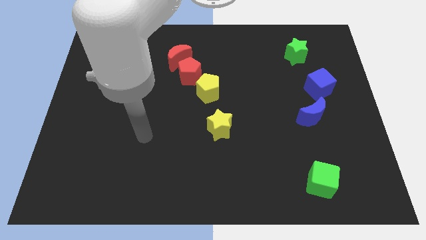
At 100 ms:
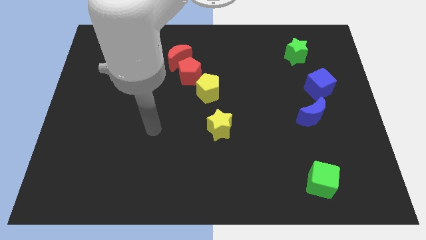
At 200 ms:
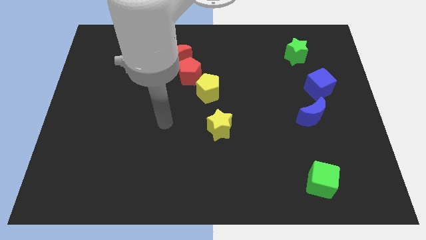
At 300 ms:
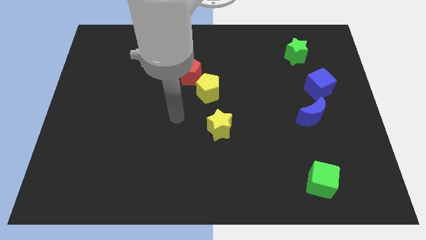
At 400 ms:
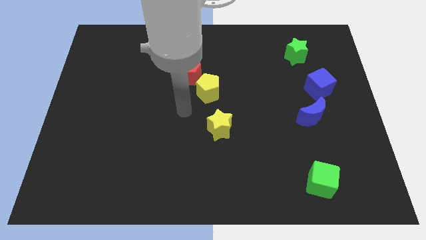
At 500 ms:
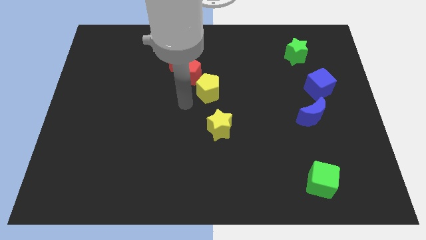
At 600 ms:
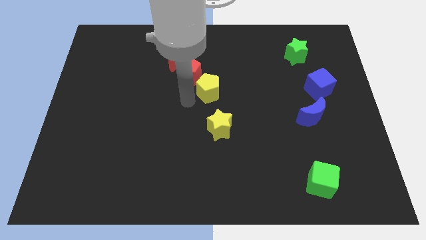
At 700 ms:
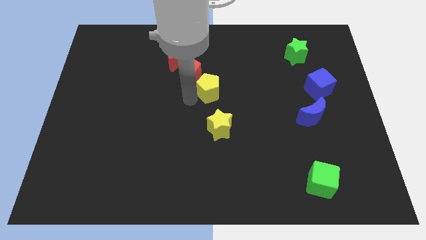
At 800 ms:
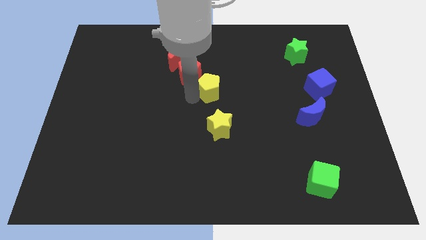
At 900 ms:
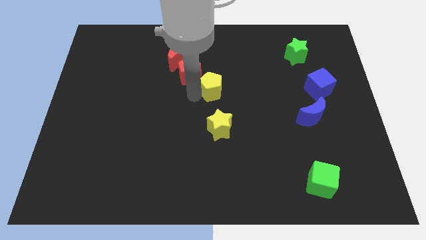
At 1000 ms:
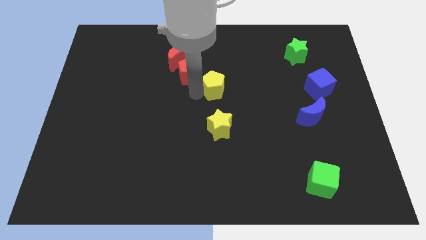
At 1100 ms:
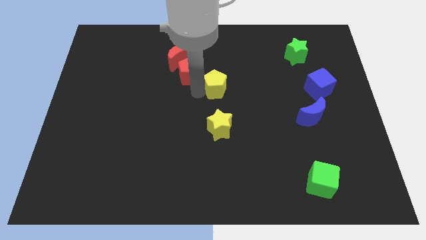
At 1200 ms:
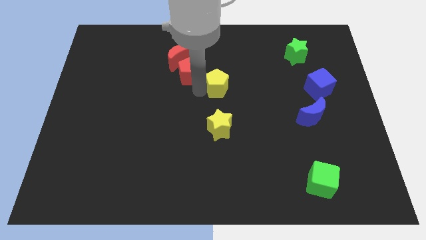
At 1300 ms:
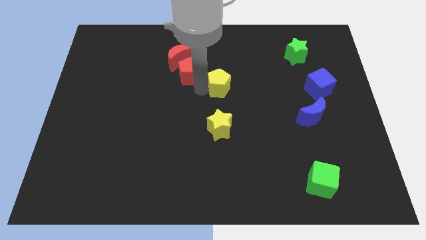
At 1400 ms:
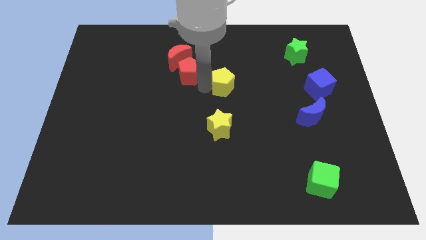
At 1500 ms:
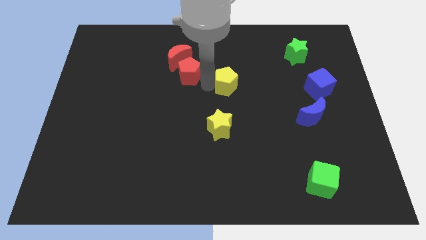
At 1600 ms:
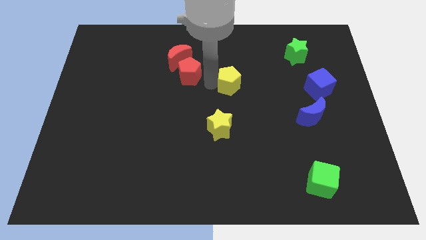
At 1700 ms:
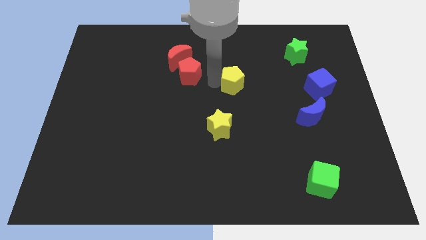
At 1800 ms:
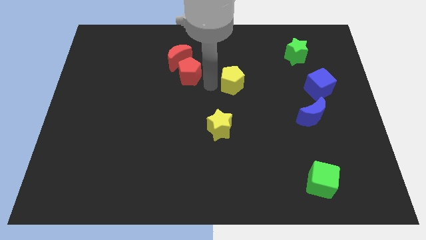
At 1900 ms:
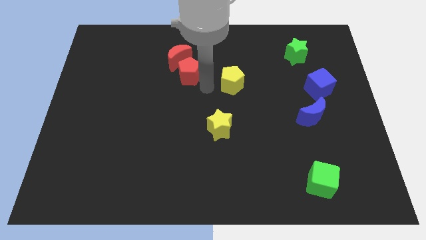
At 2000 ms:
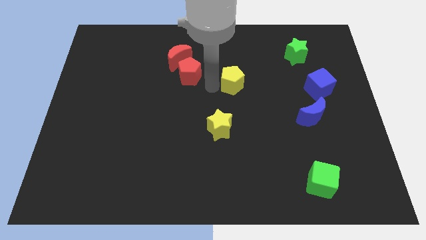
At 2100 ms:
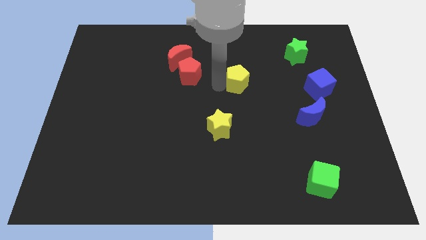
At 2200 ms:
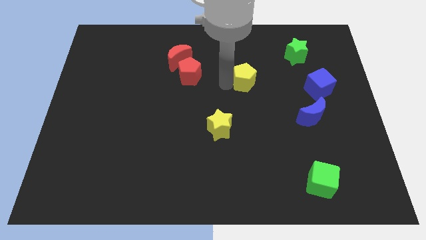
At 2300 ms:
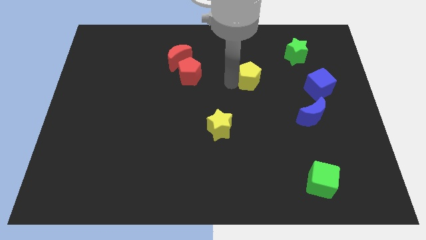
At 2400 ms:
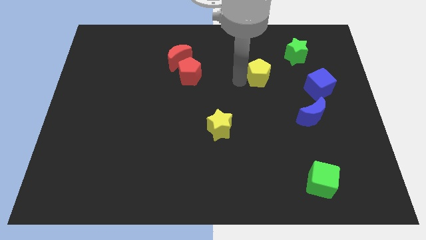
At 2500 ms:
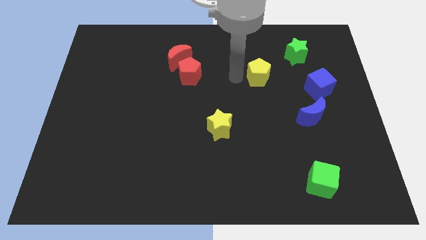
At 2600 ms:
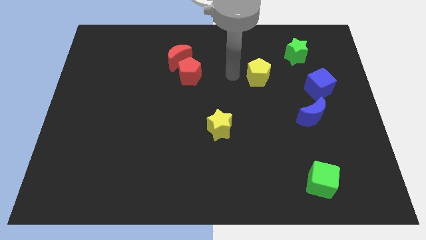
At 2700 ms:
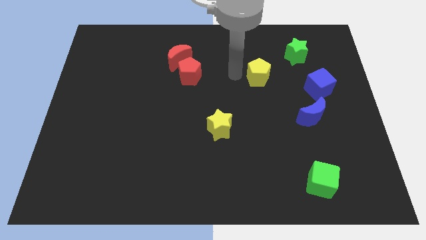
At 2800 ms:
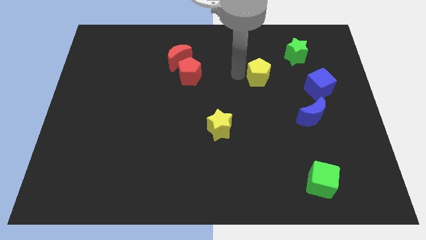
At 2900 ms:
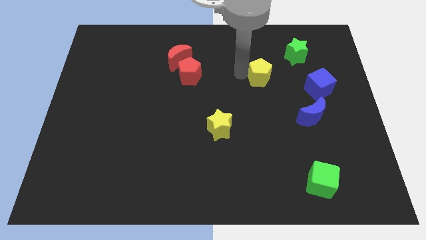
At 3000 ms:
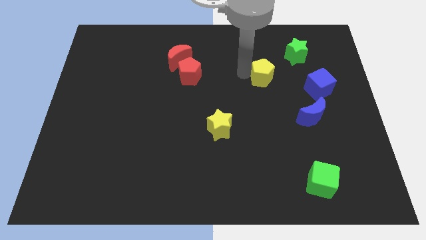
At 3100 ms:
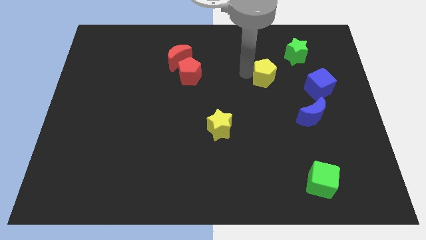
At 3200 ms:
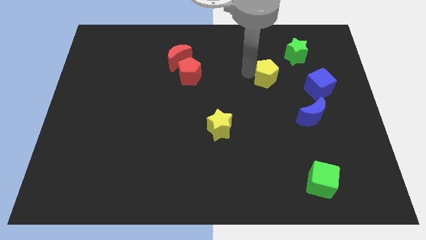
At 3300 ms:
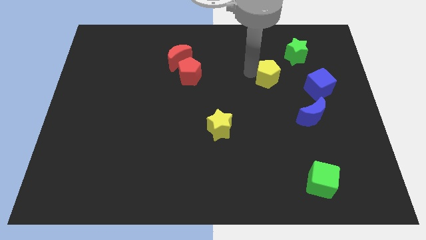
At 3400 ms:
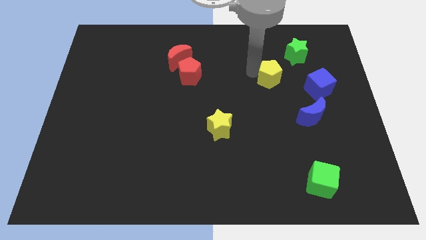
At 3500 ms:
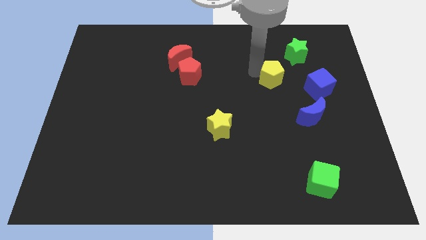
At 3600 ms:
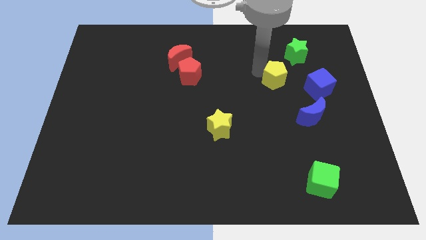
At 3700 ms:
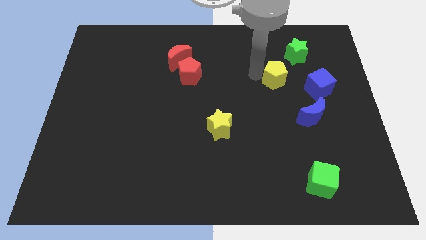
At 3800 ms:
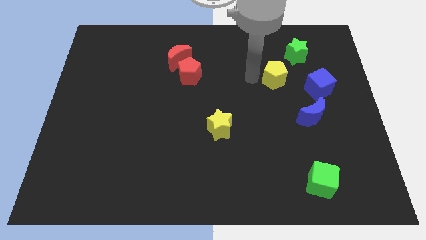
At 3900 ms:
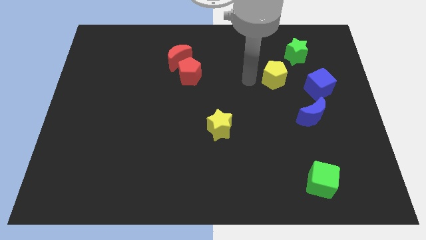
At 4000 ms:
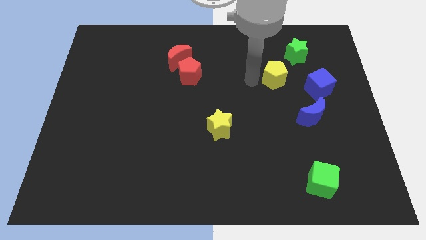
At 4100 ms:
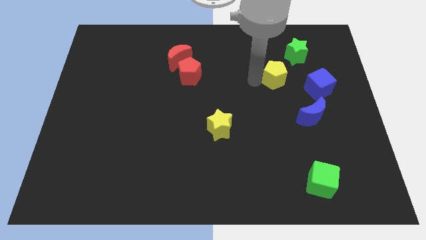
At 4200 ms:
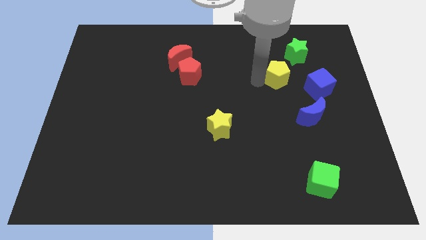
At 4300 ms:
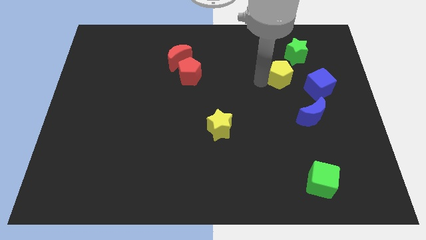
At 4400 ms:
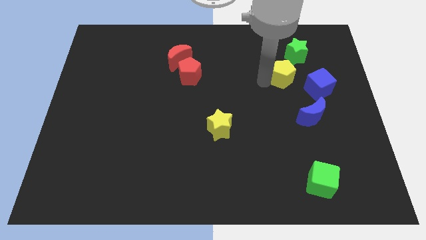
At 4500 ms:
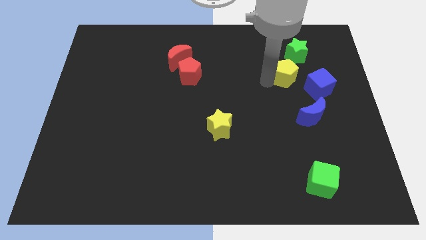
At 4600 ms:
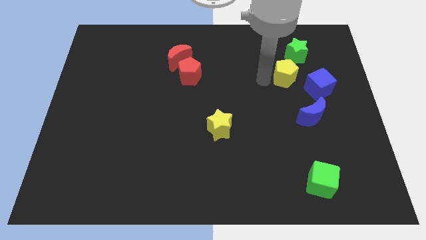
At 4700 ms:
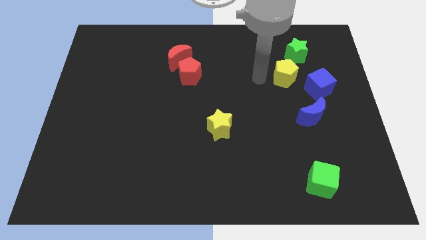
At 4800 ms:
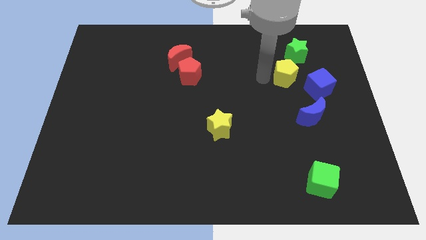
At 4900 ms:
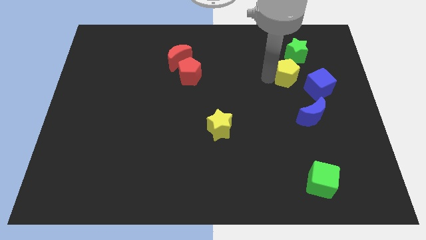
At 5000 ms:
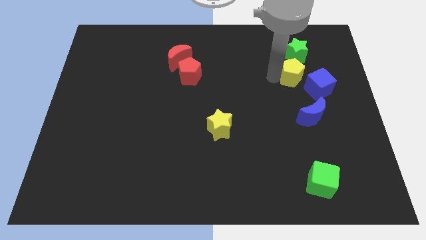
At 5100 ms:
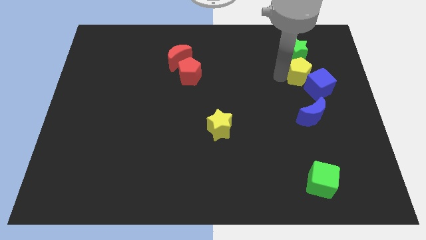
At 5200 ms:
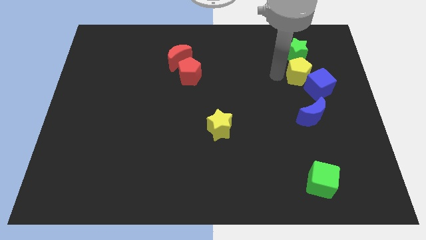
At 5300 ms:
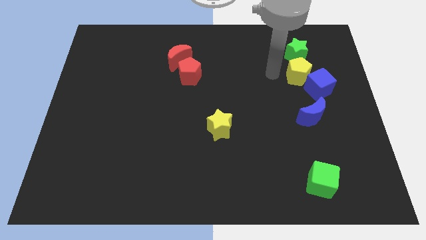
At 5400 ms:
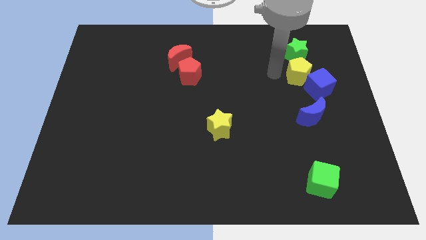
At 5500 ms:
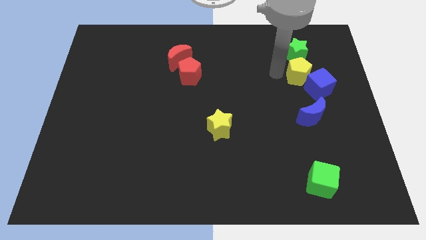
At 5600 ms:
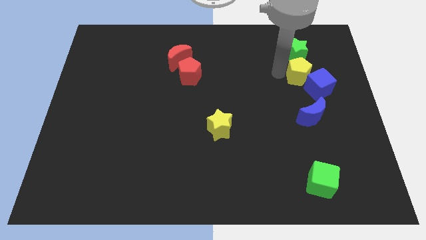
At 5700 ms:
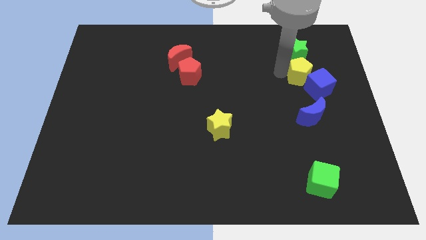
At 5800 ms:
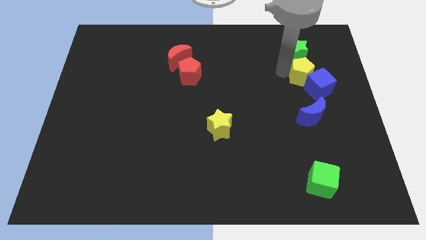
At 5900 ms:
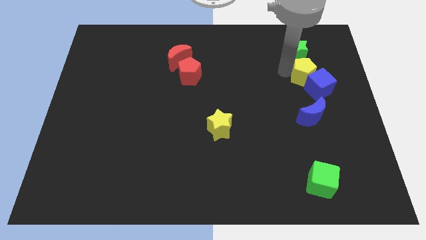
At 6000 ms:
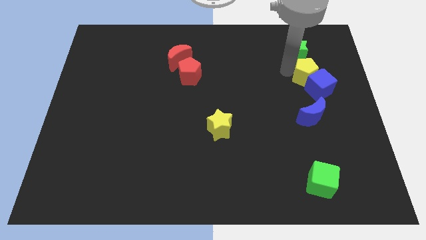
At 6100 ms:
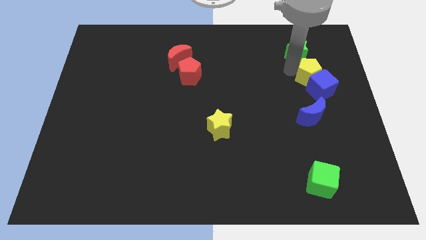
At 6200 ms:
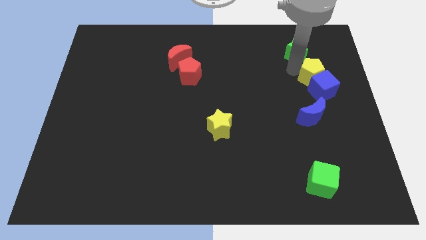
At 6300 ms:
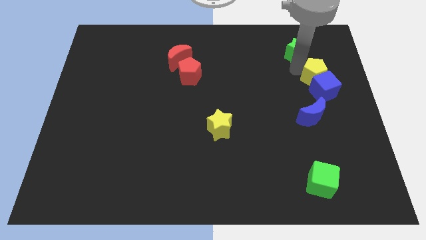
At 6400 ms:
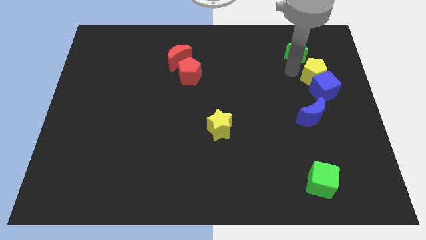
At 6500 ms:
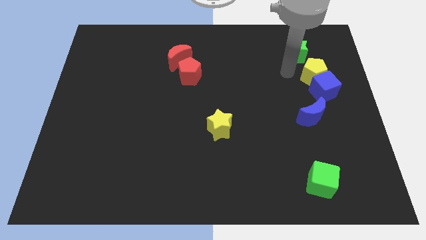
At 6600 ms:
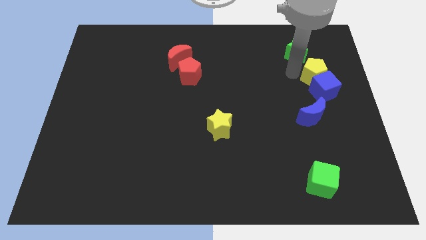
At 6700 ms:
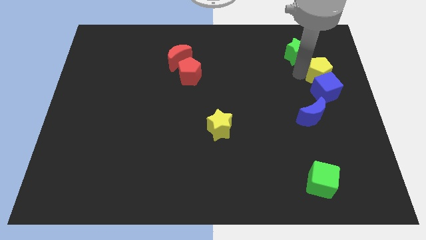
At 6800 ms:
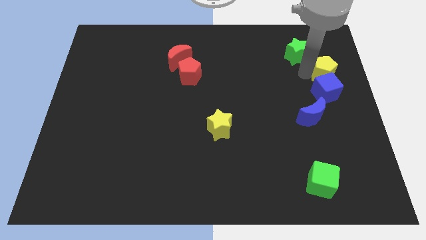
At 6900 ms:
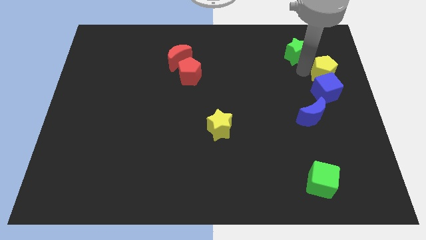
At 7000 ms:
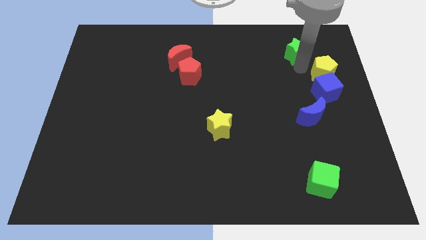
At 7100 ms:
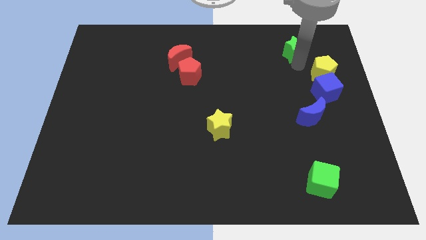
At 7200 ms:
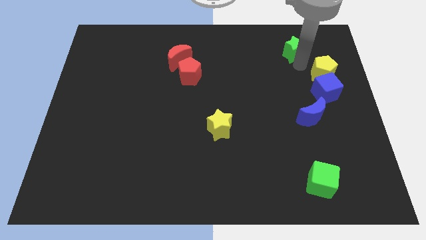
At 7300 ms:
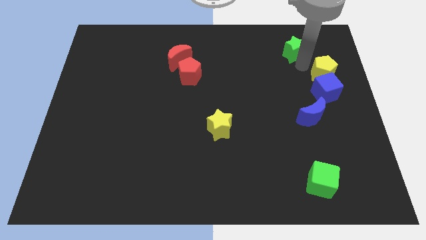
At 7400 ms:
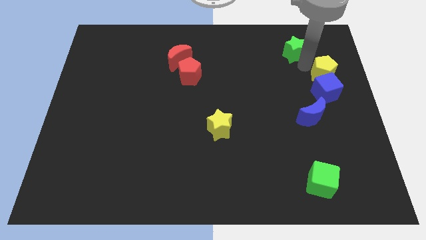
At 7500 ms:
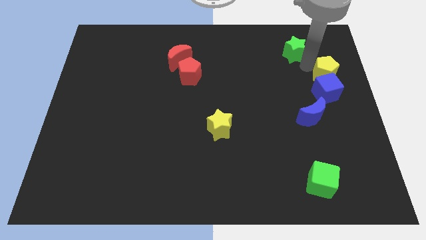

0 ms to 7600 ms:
put the yellow pentagon to the right side
